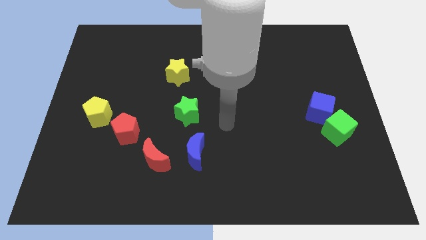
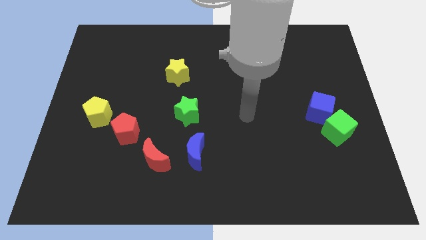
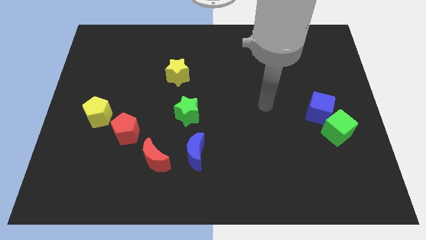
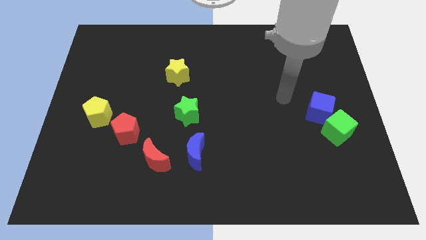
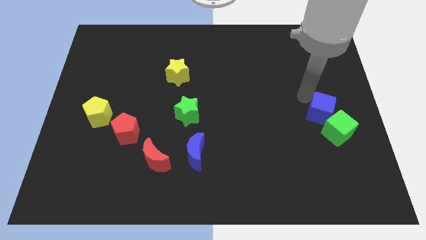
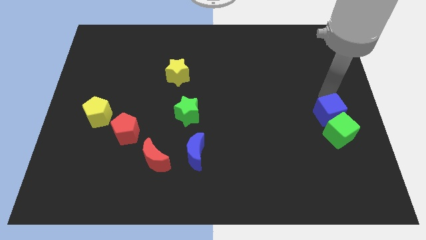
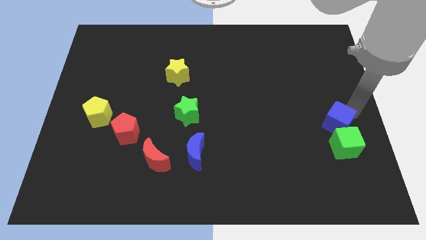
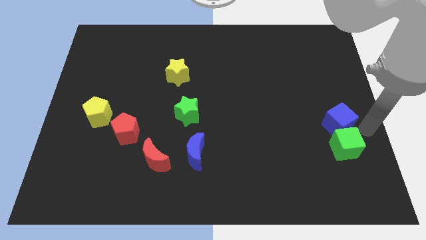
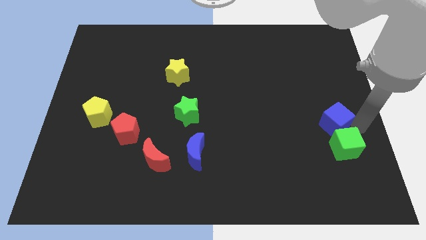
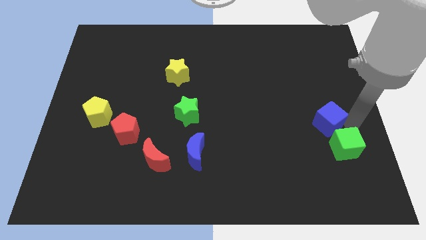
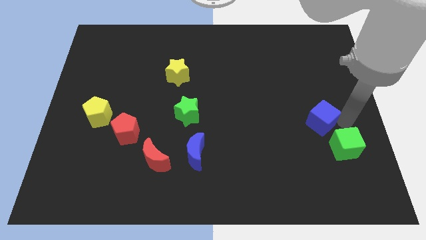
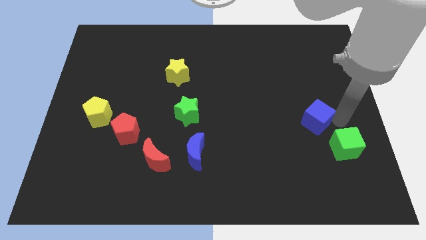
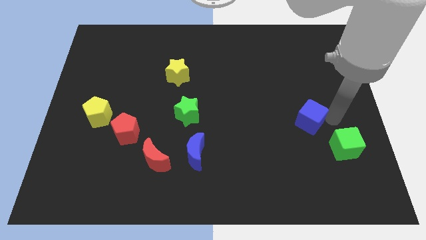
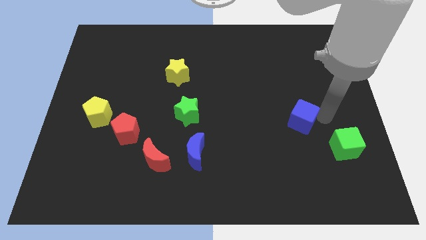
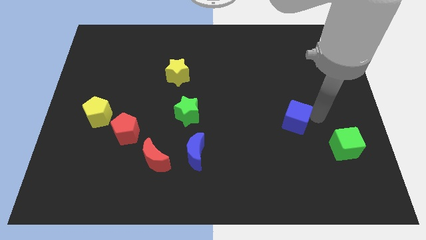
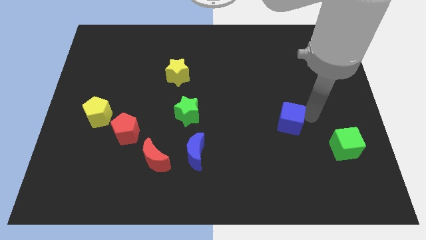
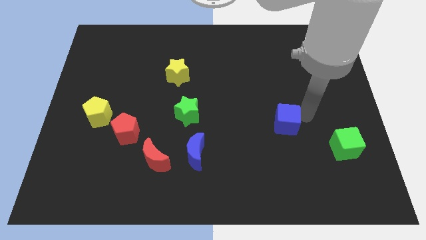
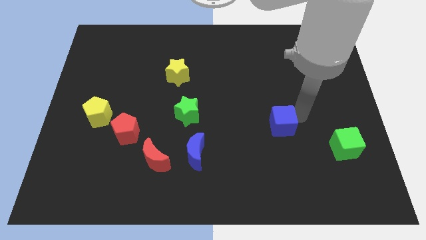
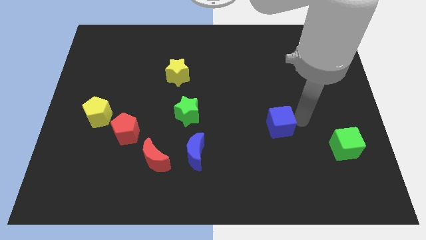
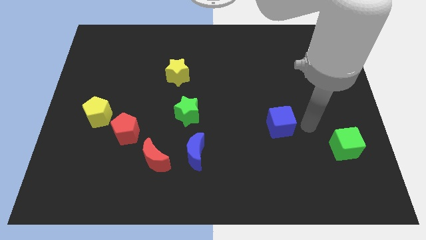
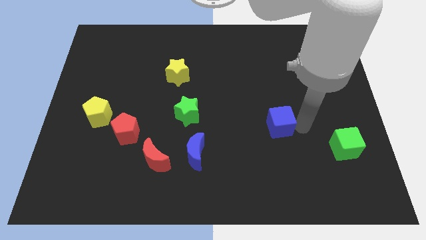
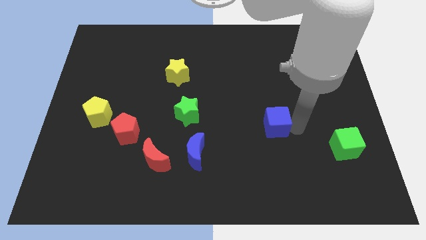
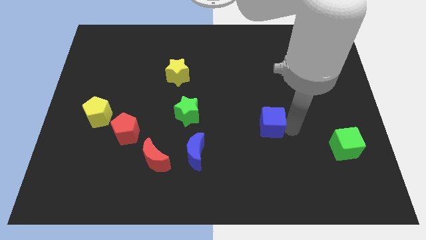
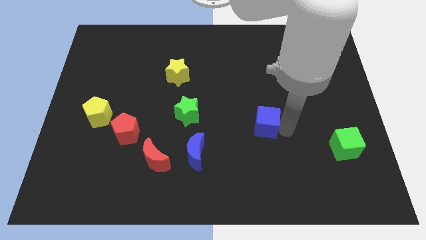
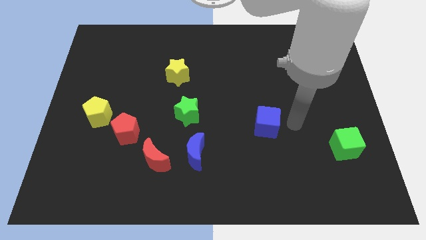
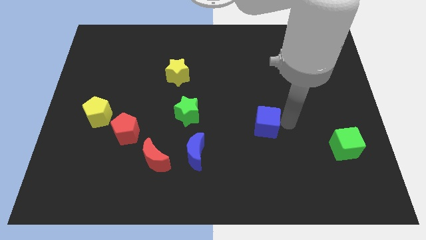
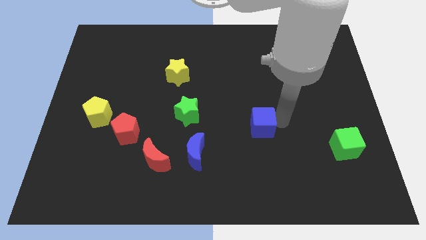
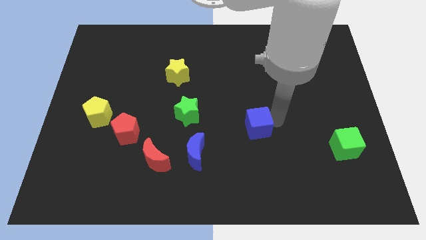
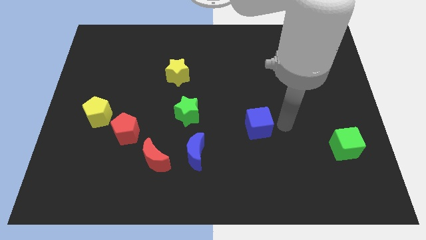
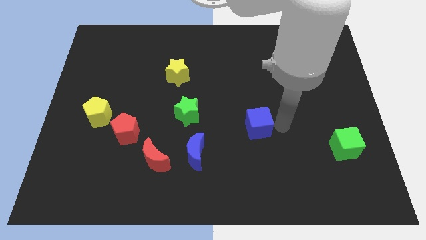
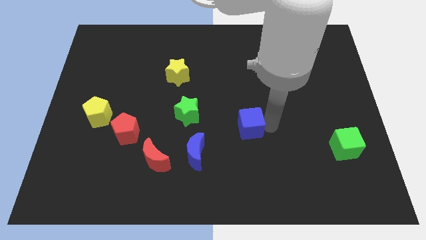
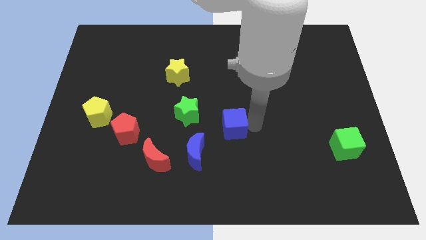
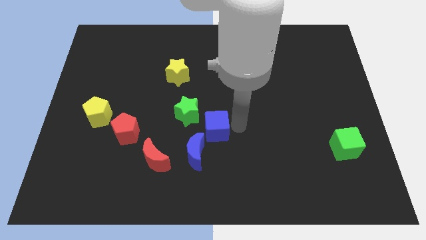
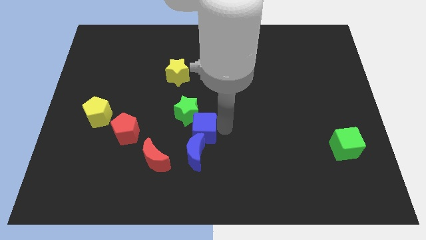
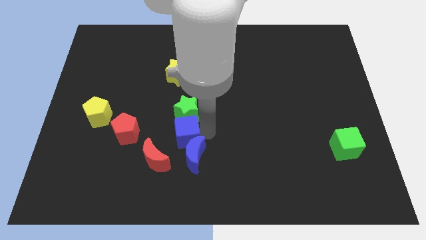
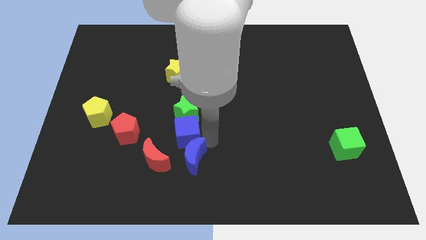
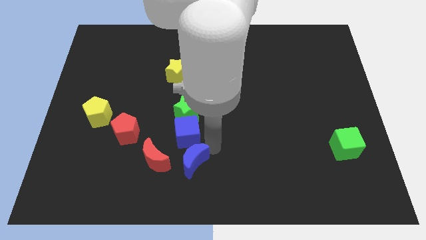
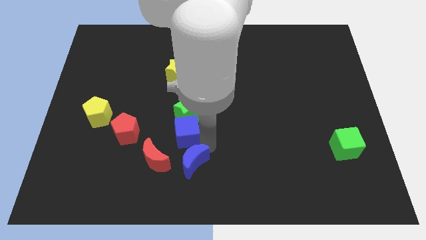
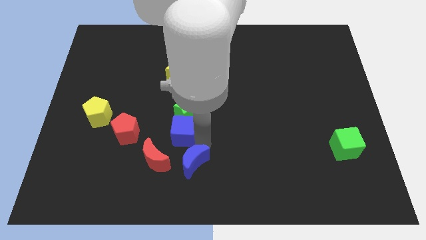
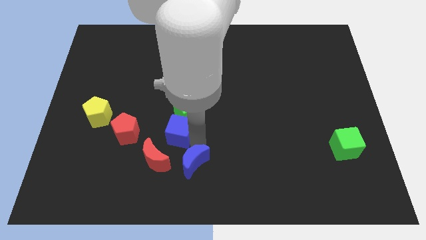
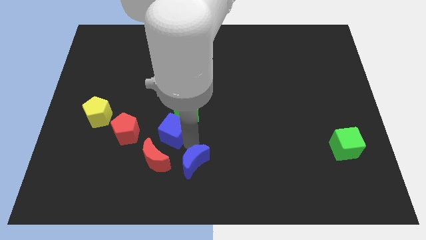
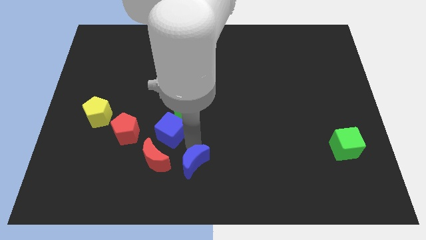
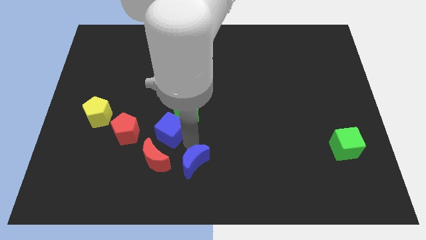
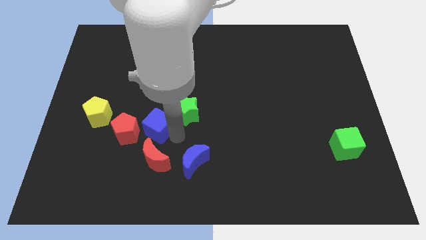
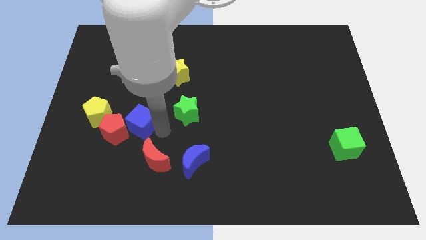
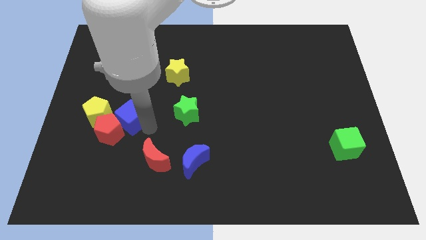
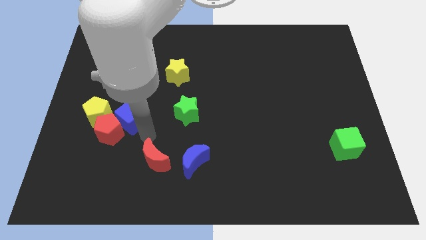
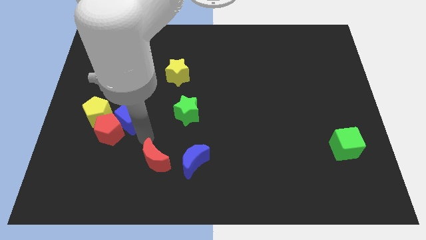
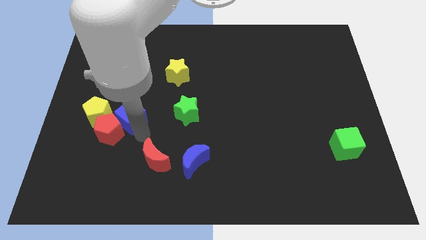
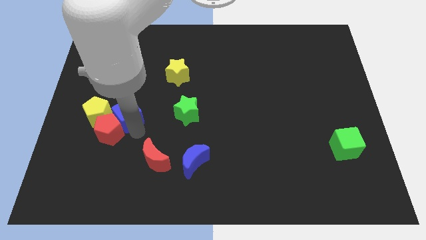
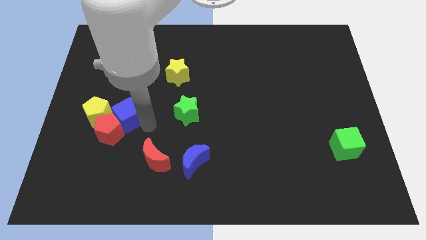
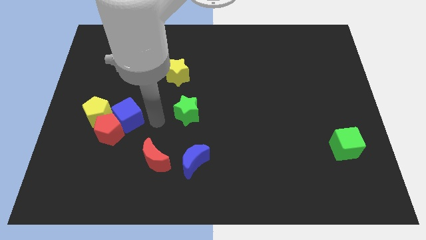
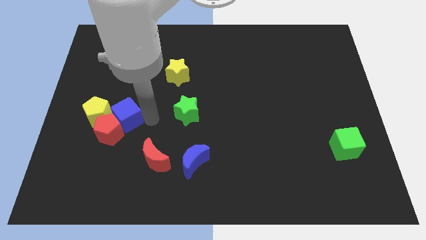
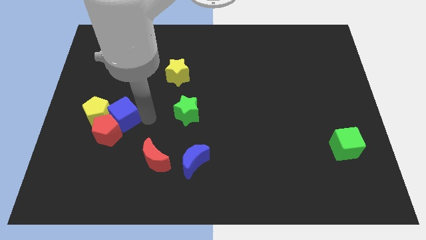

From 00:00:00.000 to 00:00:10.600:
put the blue cube to the yellow pentagon

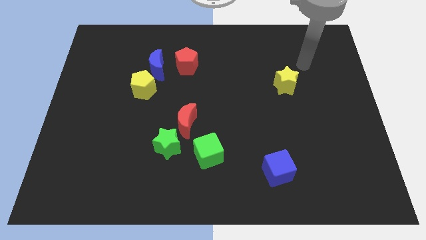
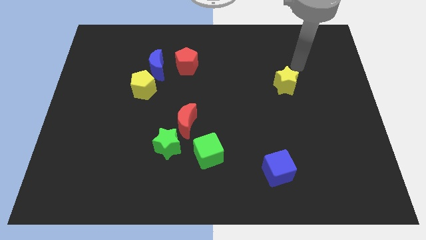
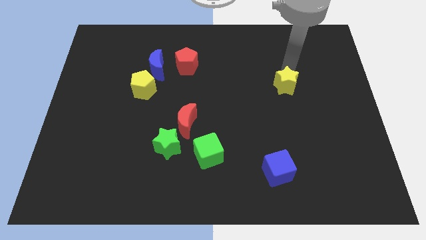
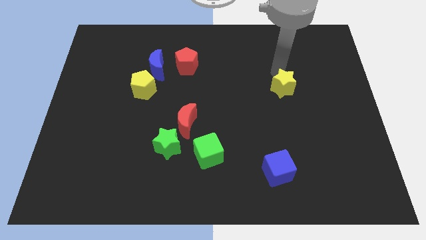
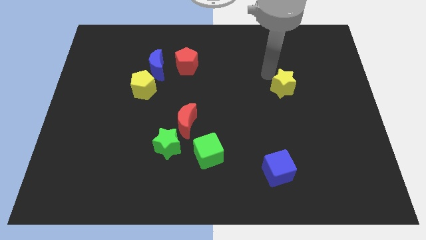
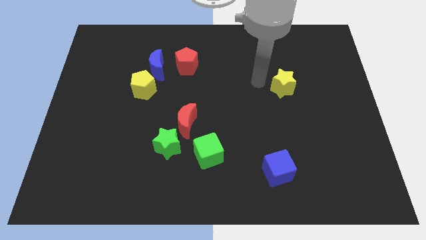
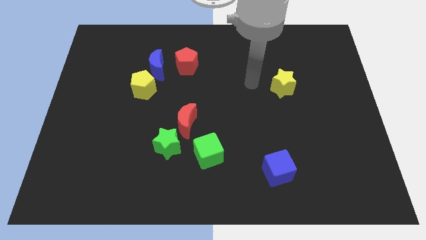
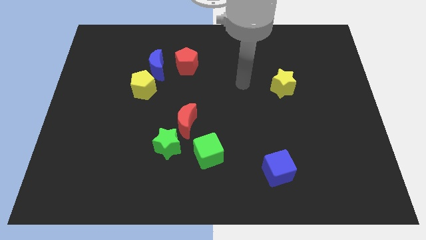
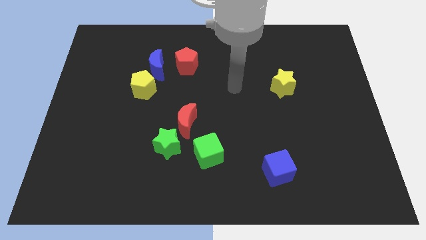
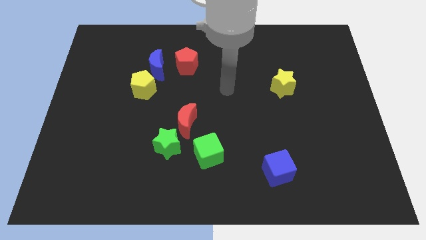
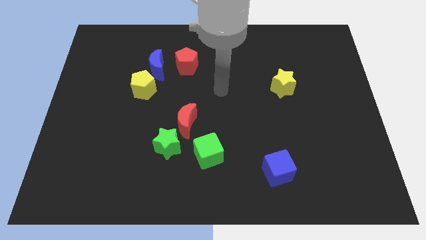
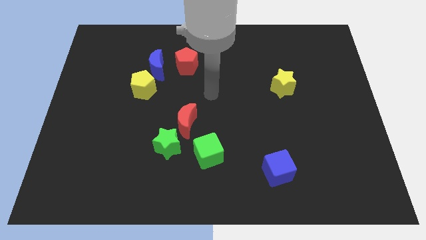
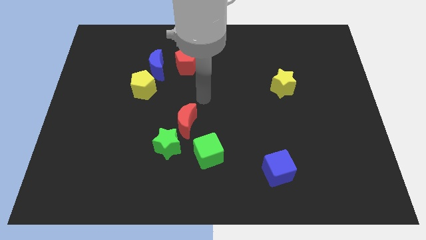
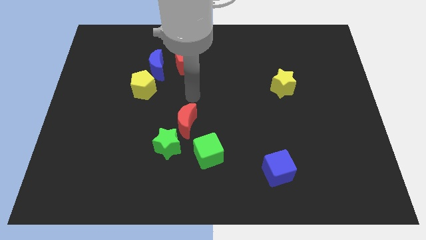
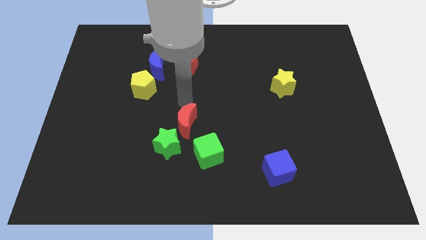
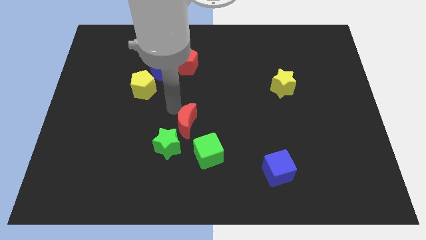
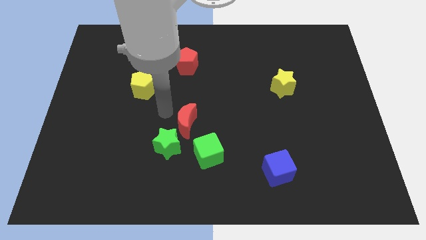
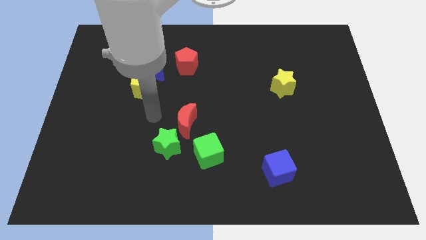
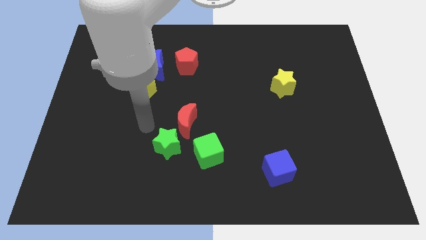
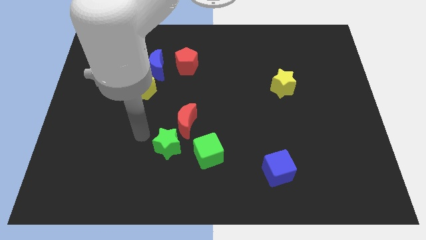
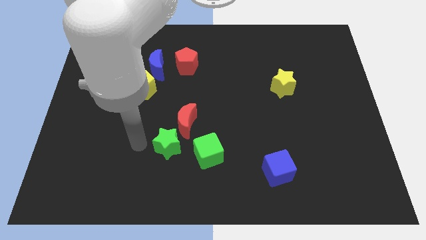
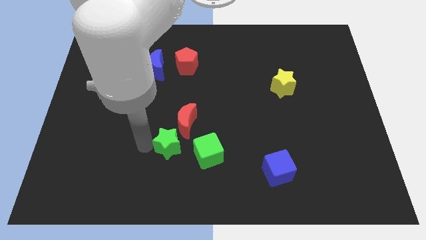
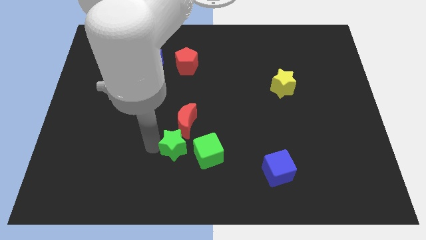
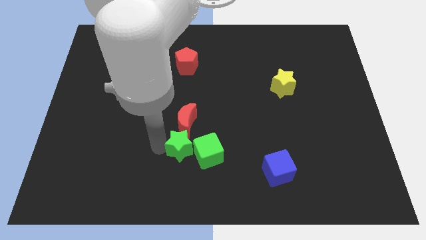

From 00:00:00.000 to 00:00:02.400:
move the green star close to the green cube
